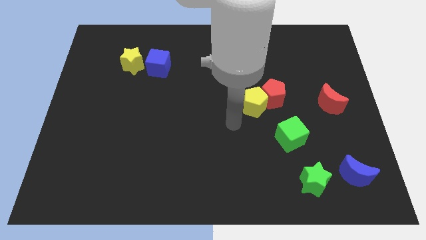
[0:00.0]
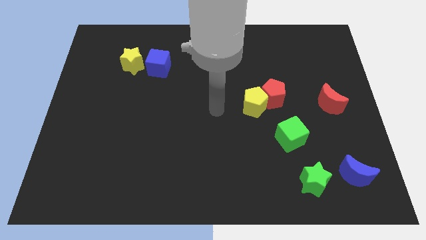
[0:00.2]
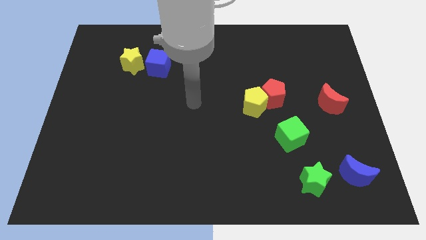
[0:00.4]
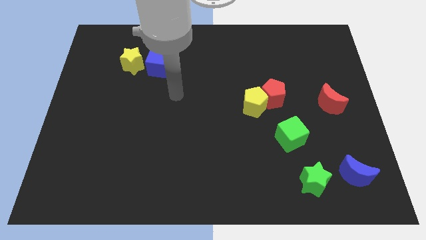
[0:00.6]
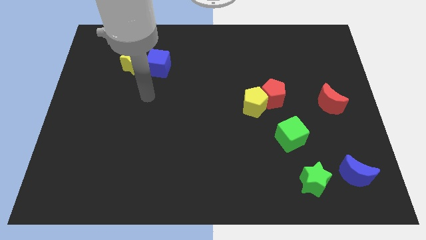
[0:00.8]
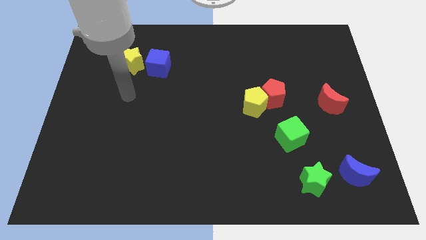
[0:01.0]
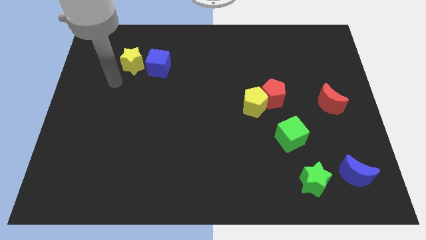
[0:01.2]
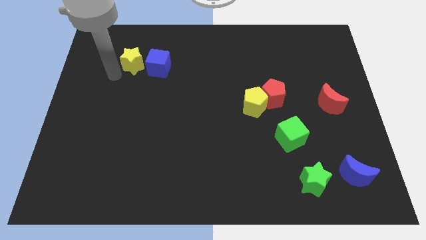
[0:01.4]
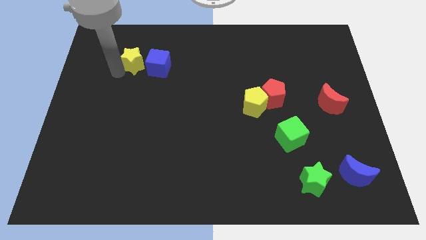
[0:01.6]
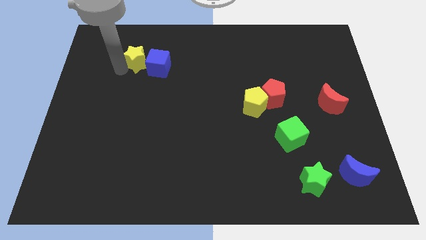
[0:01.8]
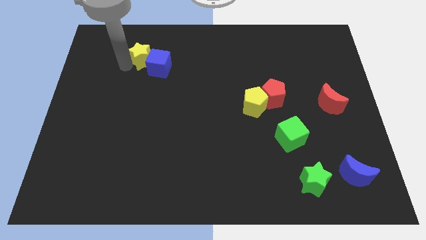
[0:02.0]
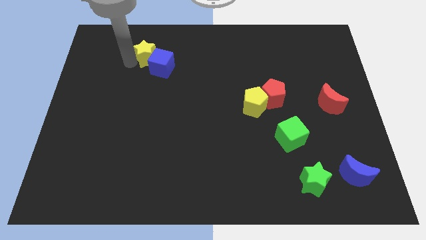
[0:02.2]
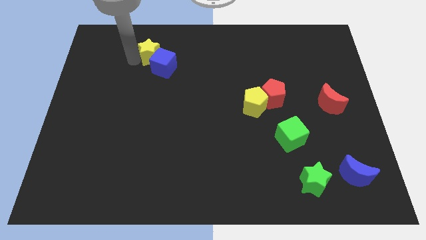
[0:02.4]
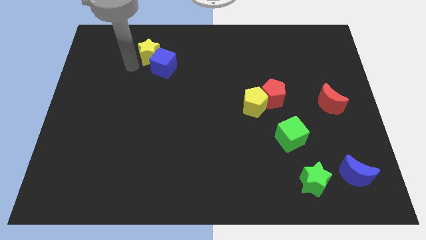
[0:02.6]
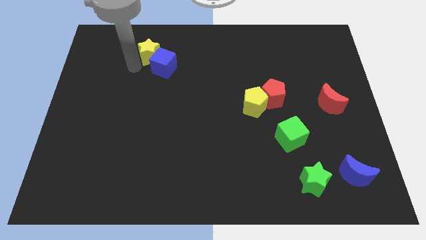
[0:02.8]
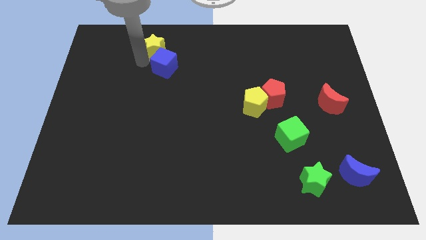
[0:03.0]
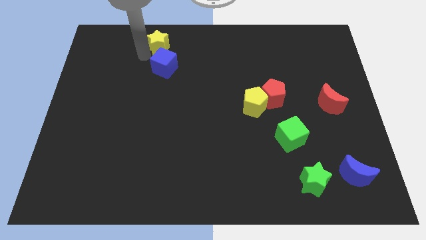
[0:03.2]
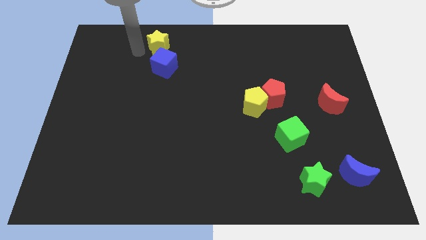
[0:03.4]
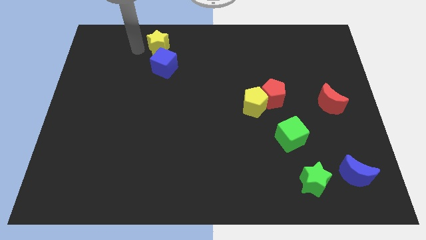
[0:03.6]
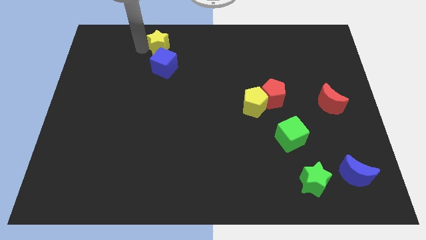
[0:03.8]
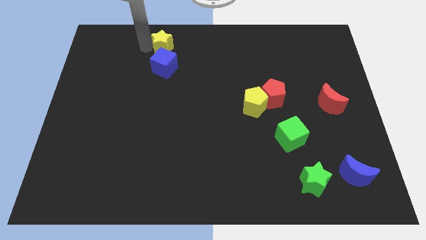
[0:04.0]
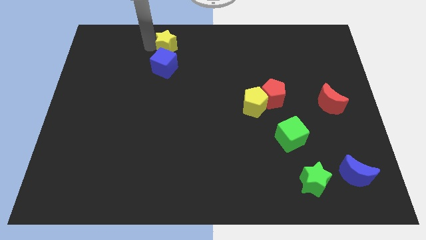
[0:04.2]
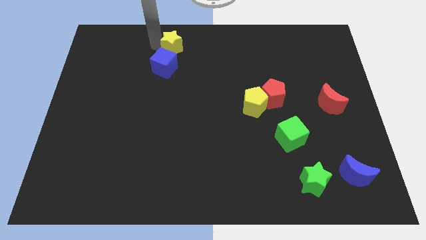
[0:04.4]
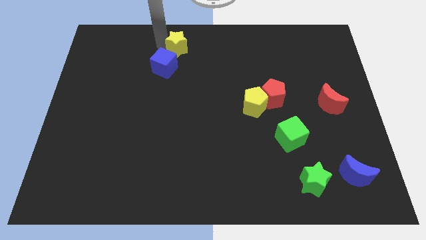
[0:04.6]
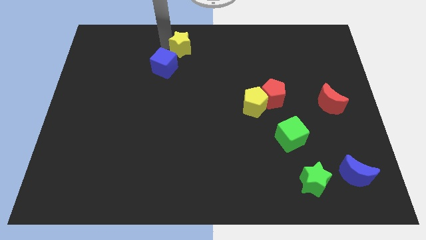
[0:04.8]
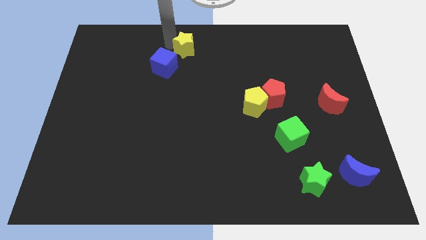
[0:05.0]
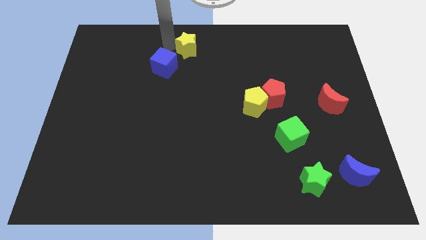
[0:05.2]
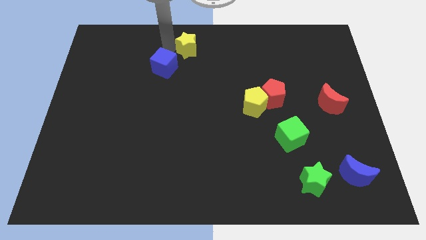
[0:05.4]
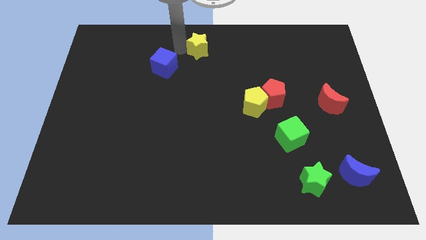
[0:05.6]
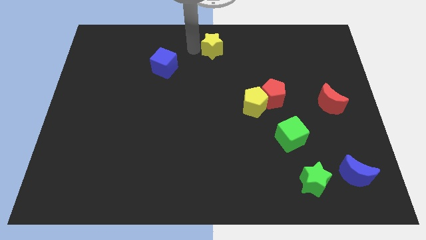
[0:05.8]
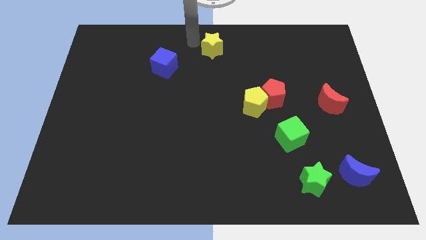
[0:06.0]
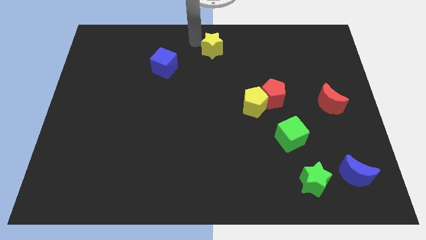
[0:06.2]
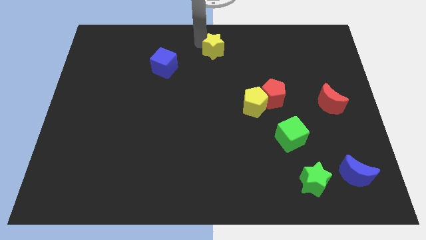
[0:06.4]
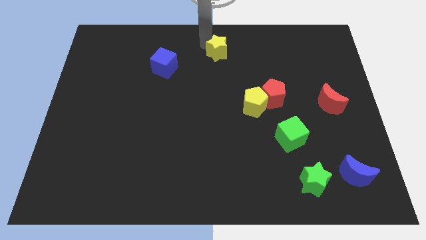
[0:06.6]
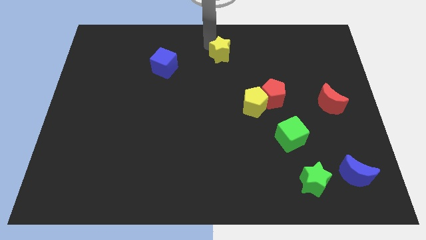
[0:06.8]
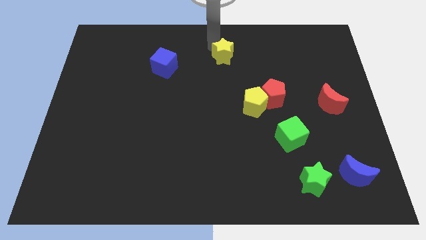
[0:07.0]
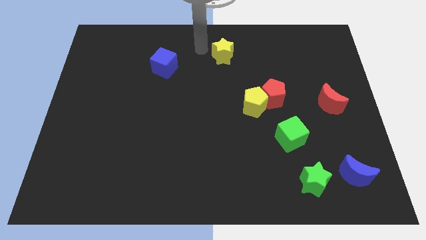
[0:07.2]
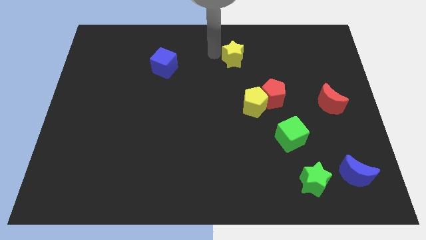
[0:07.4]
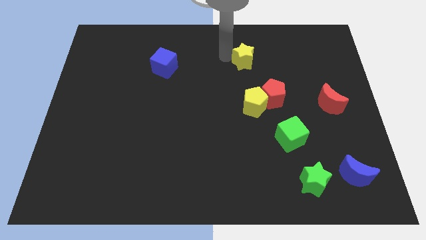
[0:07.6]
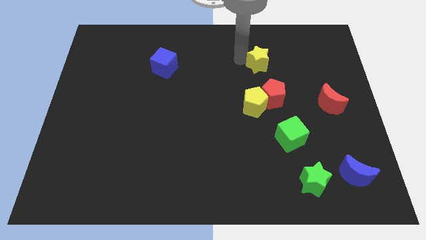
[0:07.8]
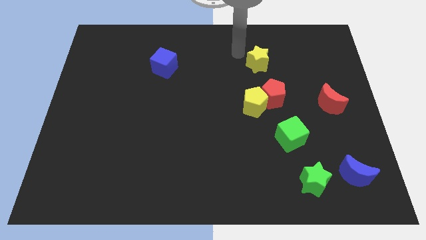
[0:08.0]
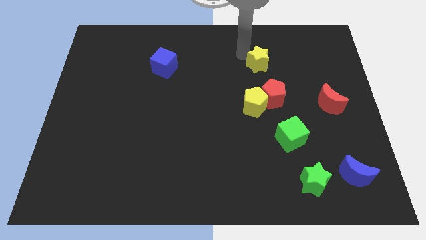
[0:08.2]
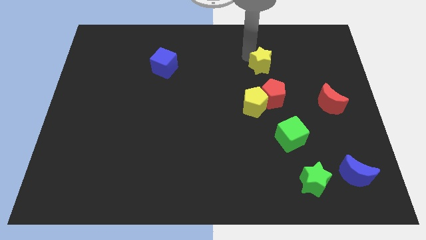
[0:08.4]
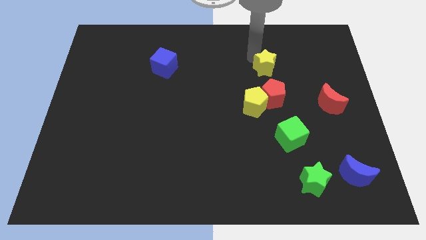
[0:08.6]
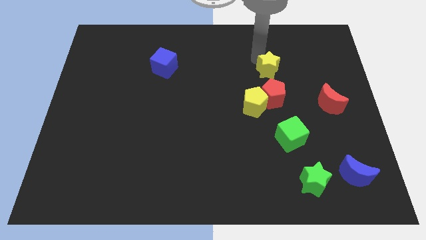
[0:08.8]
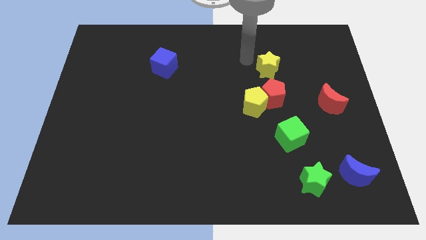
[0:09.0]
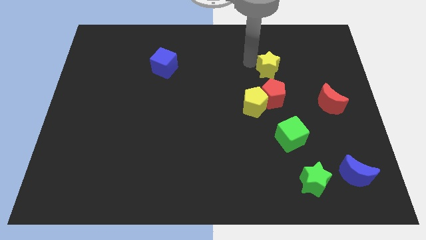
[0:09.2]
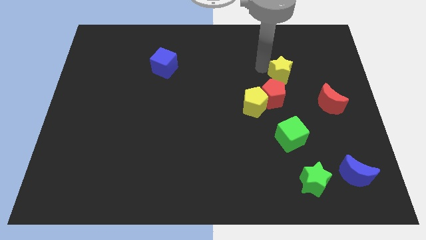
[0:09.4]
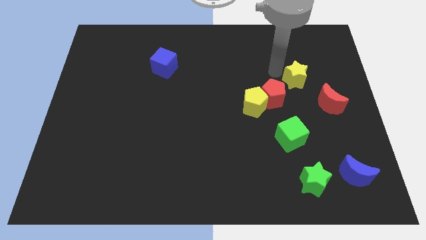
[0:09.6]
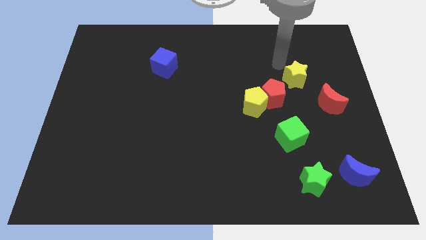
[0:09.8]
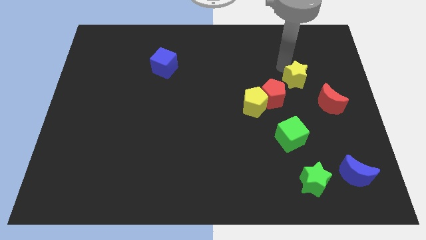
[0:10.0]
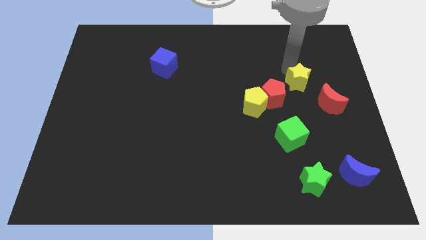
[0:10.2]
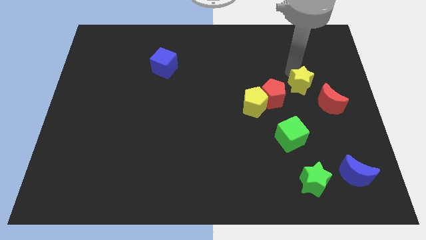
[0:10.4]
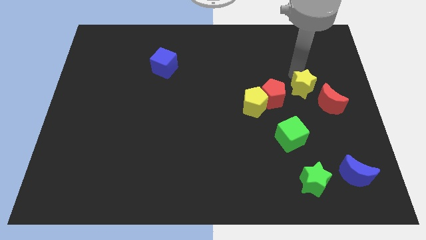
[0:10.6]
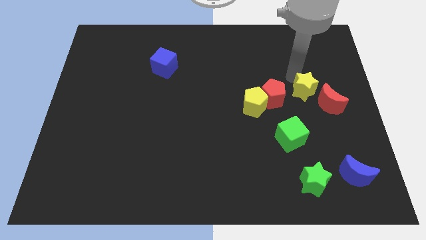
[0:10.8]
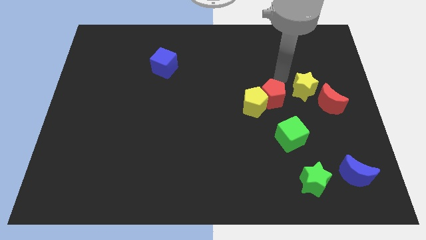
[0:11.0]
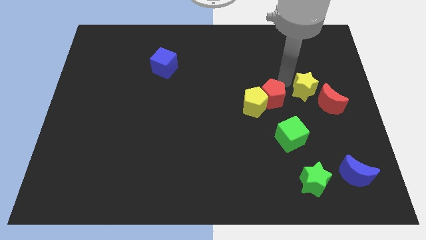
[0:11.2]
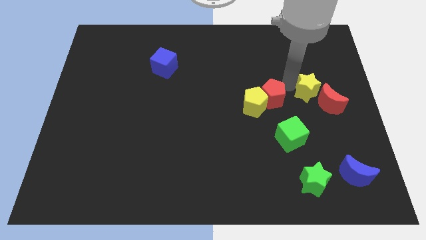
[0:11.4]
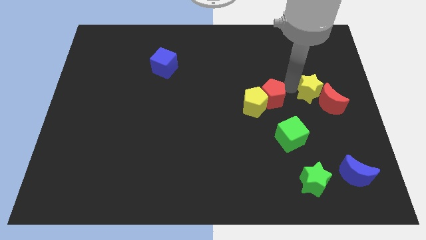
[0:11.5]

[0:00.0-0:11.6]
put the yellow star towards the red moon
